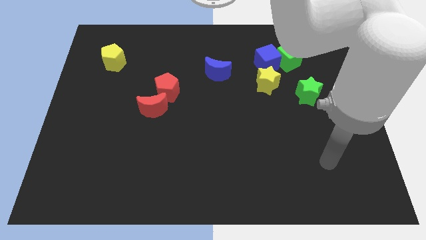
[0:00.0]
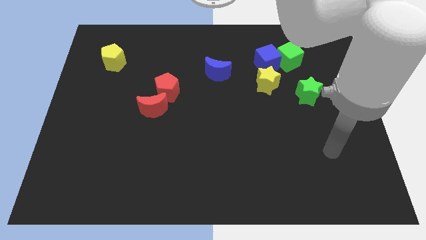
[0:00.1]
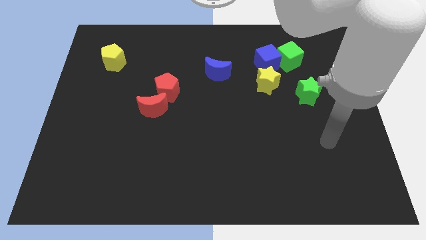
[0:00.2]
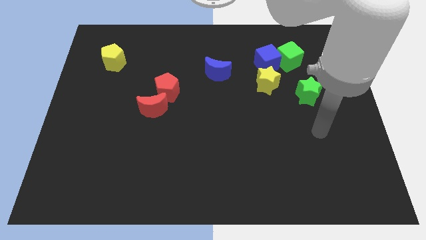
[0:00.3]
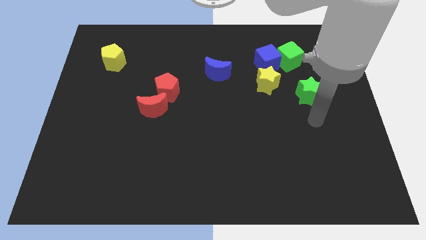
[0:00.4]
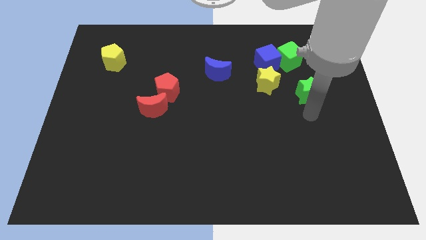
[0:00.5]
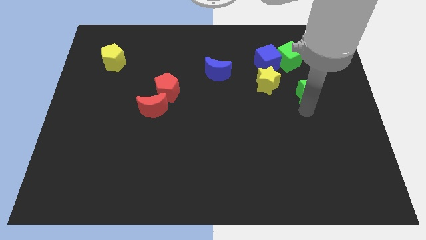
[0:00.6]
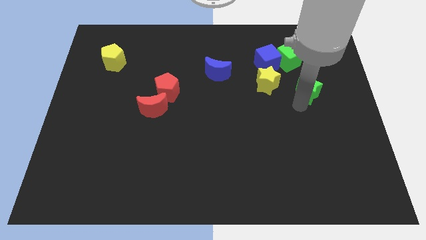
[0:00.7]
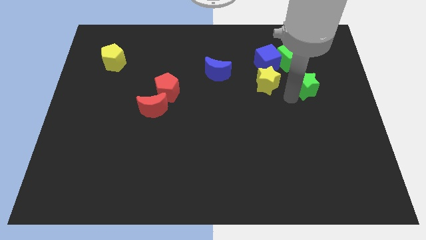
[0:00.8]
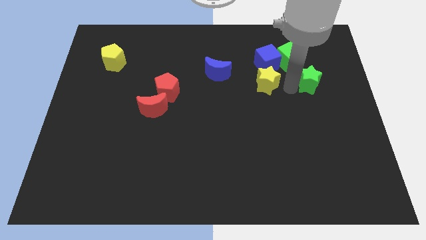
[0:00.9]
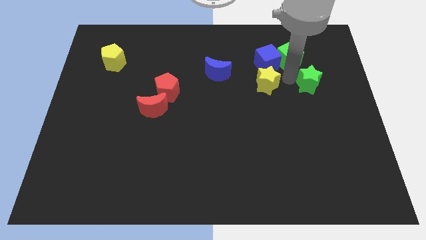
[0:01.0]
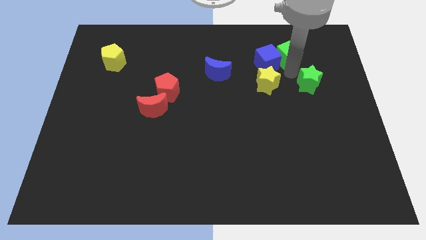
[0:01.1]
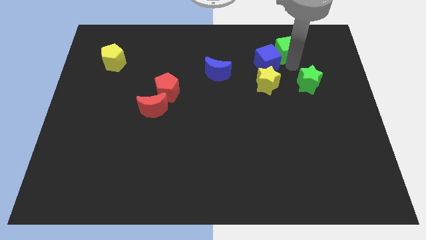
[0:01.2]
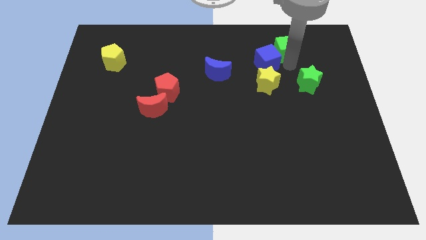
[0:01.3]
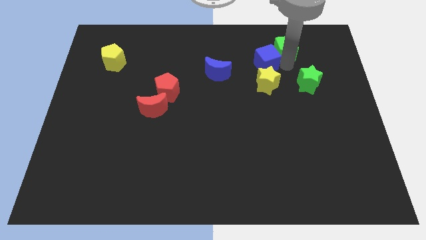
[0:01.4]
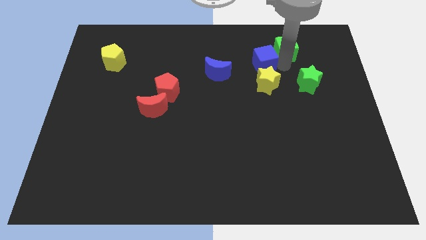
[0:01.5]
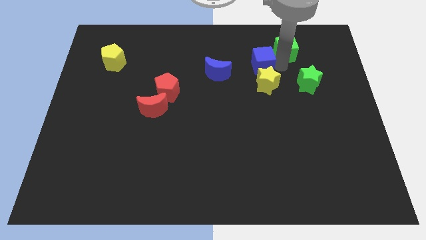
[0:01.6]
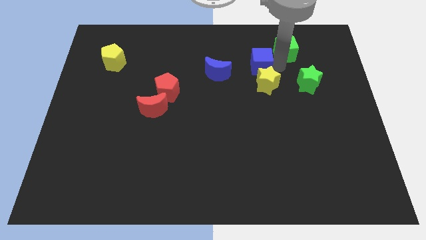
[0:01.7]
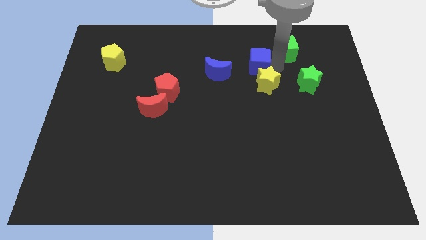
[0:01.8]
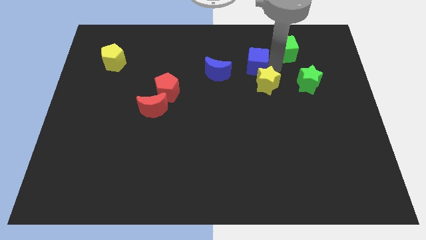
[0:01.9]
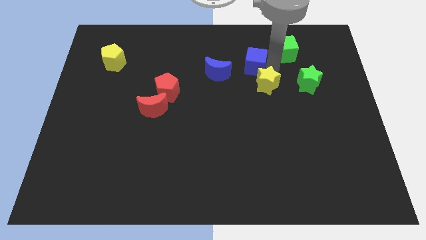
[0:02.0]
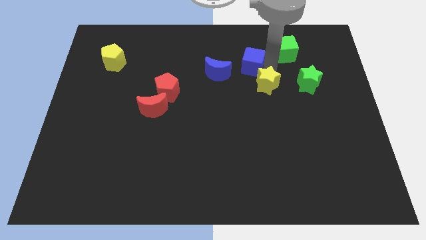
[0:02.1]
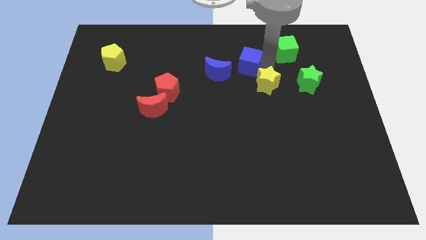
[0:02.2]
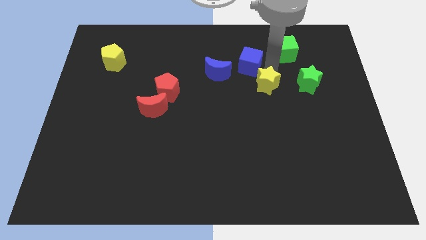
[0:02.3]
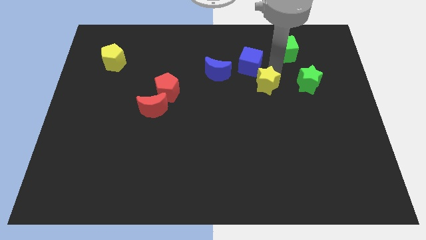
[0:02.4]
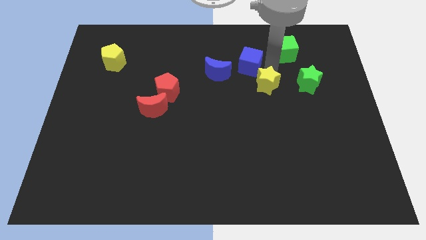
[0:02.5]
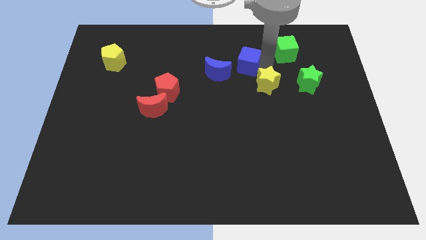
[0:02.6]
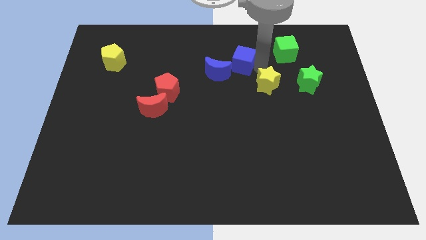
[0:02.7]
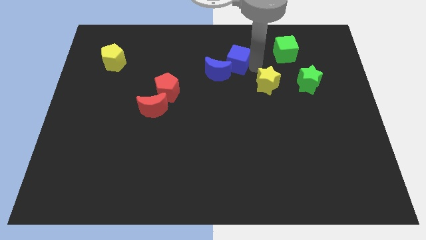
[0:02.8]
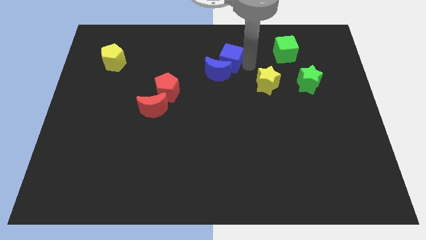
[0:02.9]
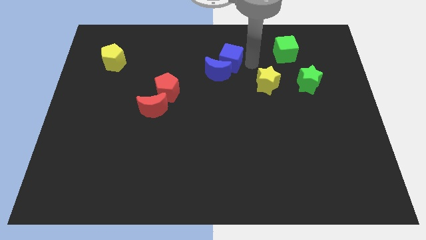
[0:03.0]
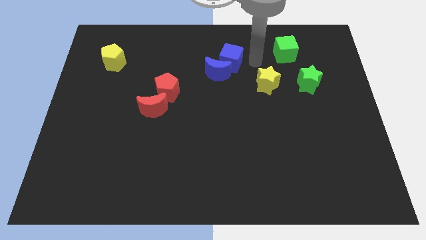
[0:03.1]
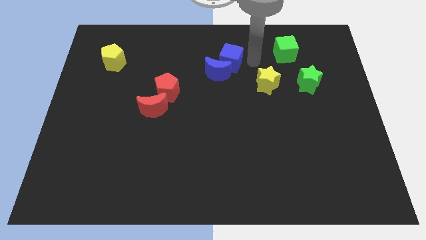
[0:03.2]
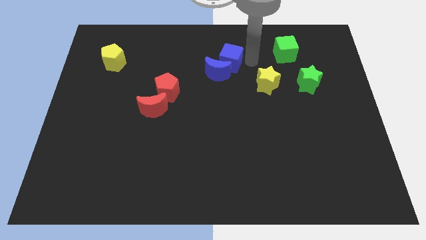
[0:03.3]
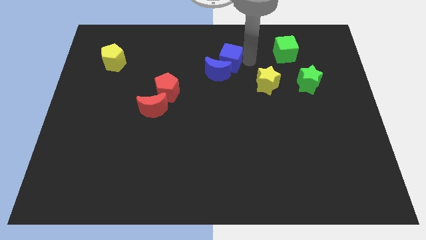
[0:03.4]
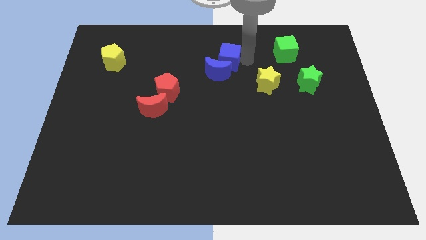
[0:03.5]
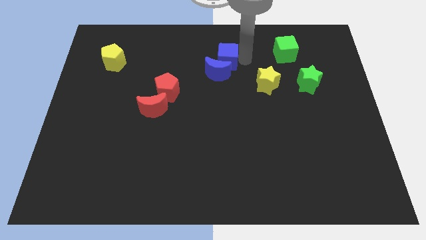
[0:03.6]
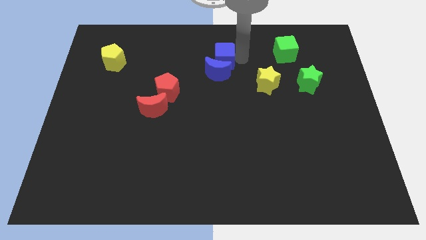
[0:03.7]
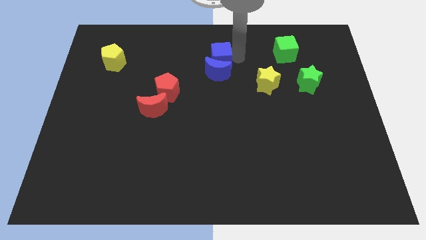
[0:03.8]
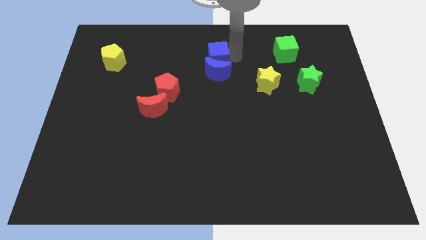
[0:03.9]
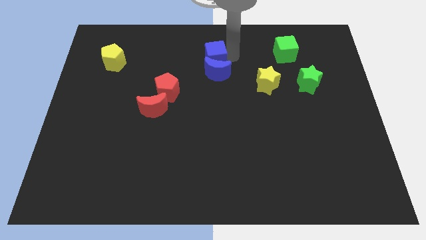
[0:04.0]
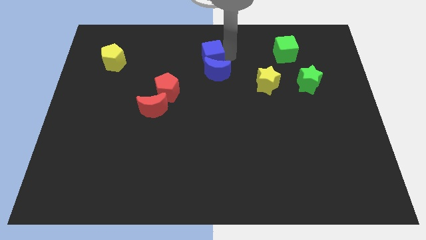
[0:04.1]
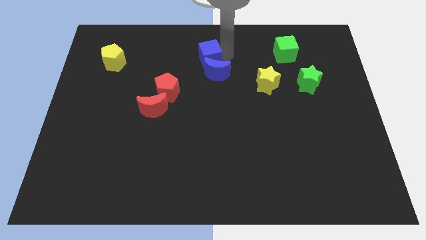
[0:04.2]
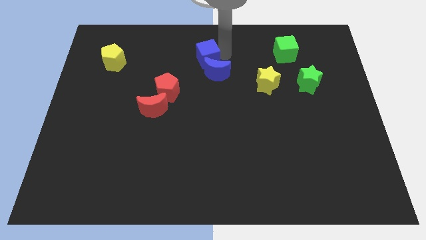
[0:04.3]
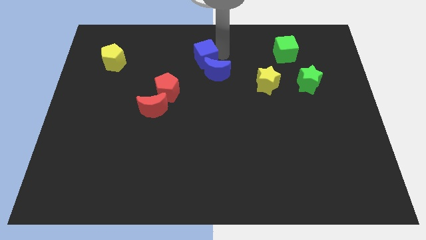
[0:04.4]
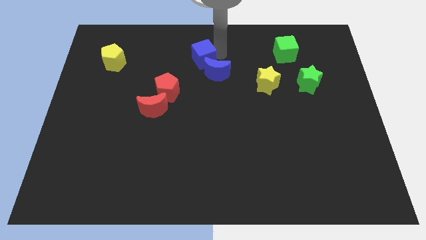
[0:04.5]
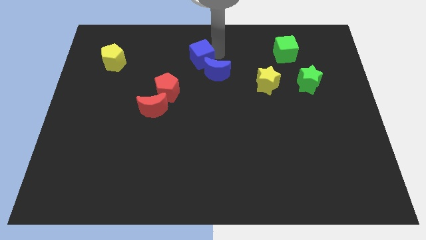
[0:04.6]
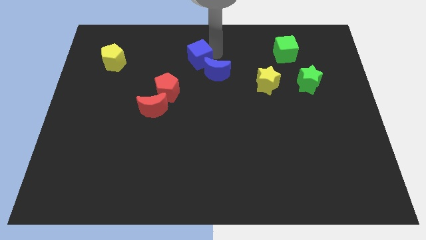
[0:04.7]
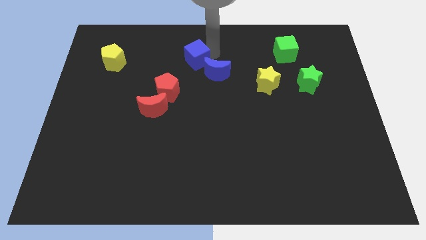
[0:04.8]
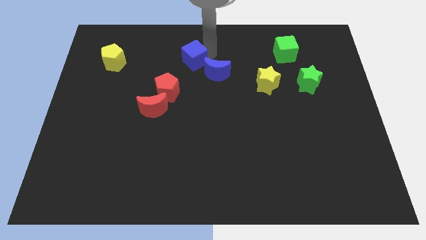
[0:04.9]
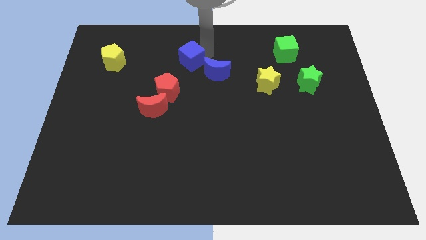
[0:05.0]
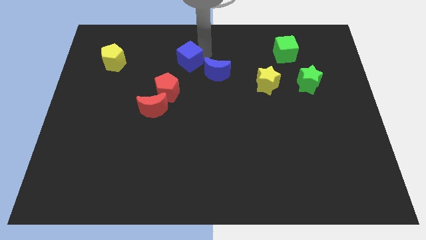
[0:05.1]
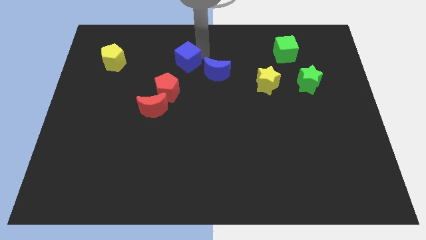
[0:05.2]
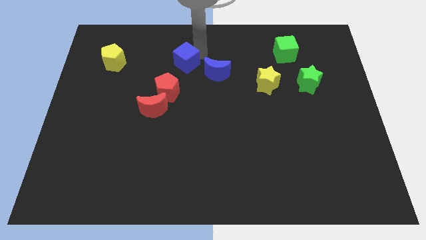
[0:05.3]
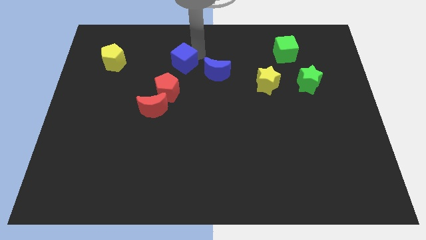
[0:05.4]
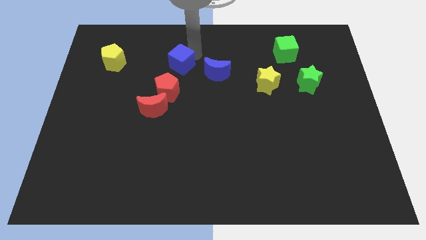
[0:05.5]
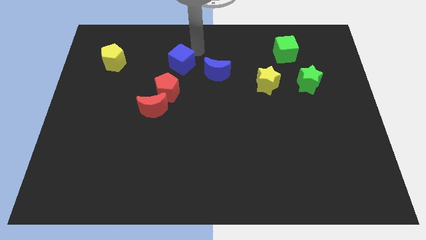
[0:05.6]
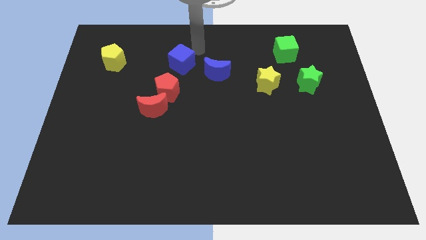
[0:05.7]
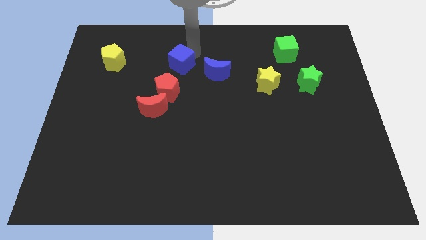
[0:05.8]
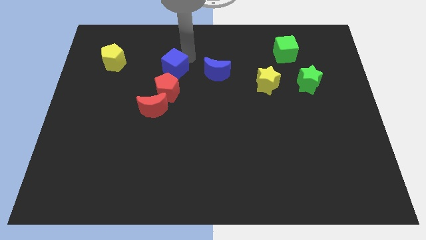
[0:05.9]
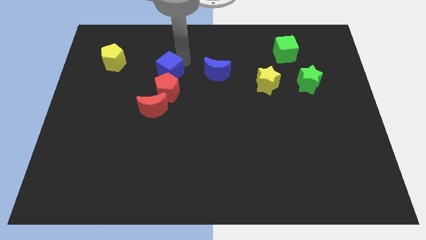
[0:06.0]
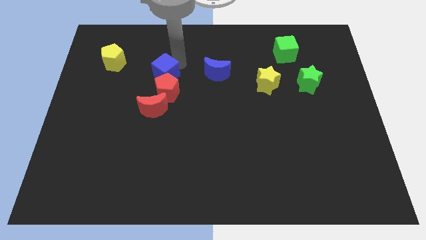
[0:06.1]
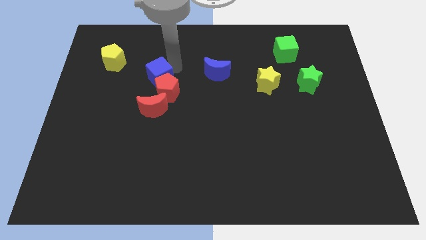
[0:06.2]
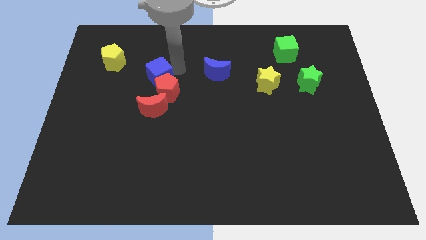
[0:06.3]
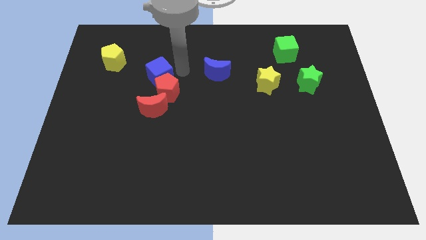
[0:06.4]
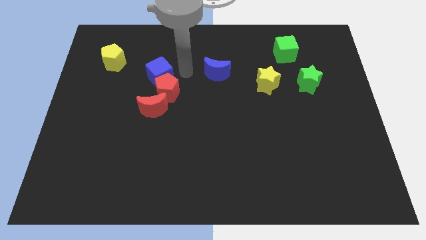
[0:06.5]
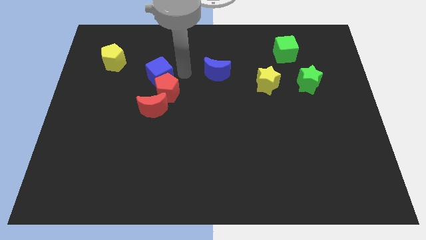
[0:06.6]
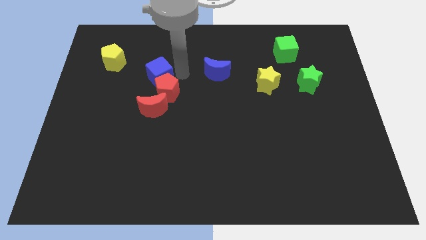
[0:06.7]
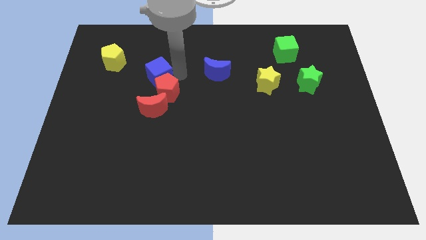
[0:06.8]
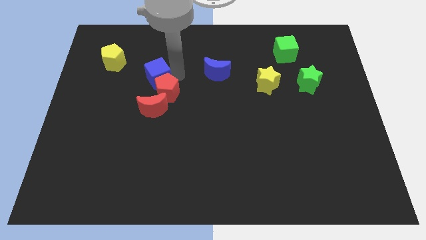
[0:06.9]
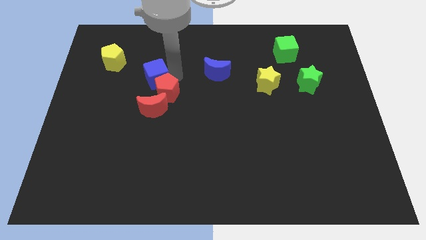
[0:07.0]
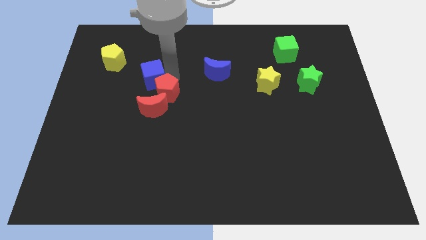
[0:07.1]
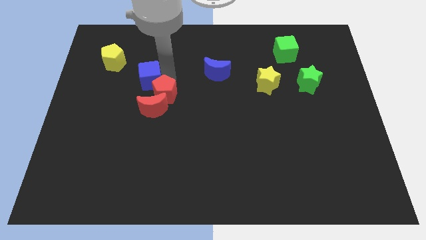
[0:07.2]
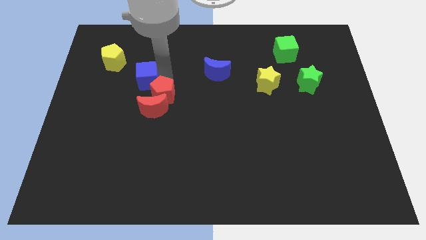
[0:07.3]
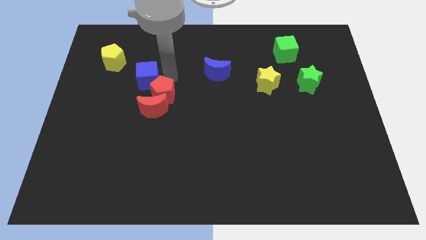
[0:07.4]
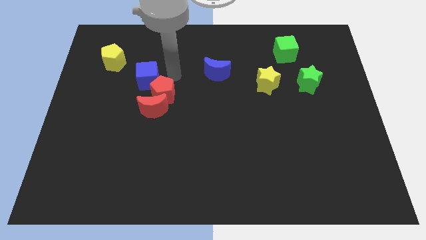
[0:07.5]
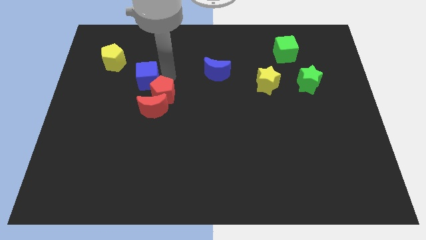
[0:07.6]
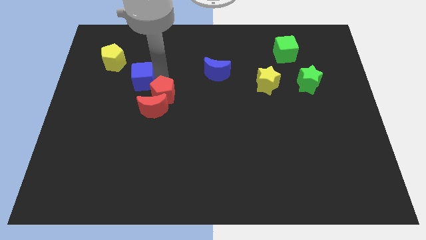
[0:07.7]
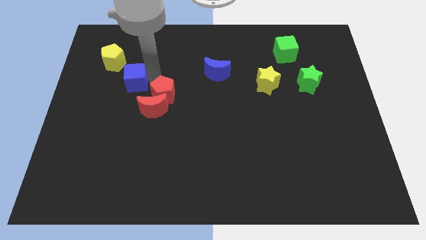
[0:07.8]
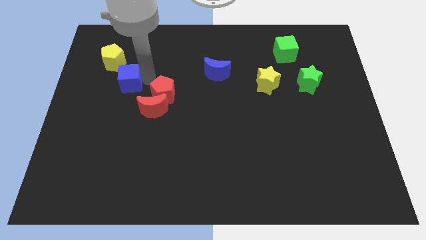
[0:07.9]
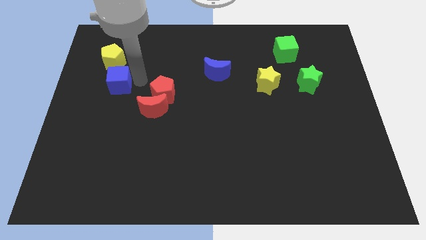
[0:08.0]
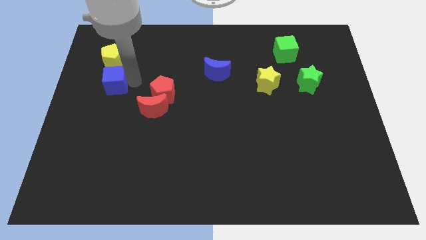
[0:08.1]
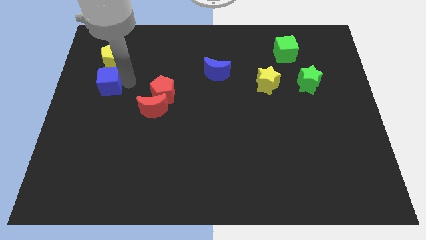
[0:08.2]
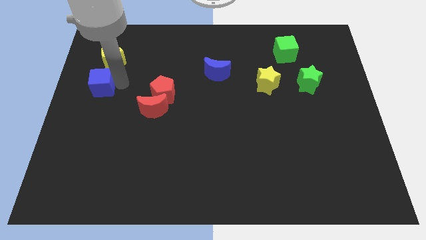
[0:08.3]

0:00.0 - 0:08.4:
move the blue cube to the left side of the board
